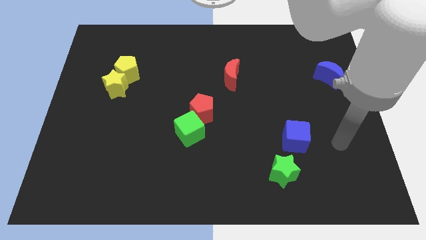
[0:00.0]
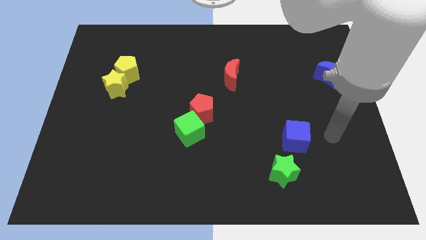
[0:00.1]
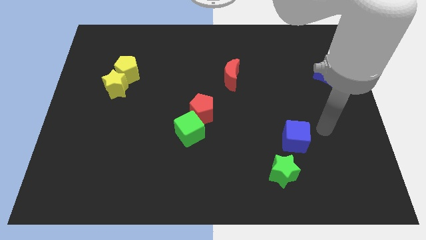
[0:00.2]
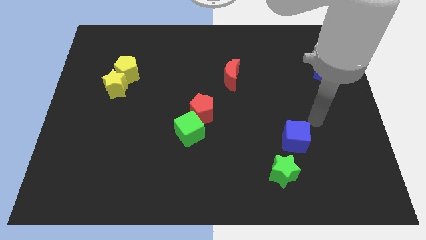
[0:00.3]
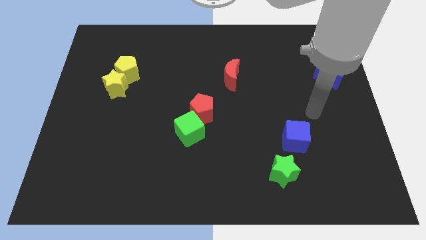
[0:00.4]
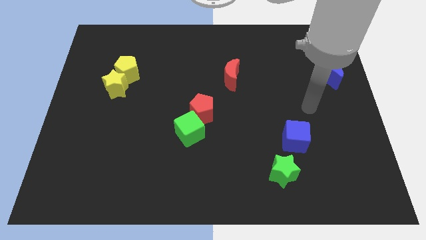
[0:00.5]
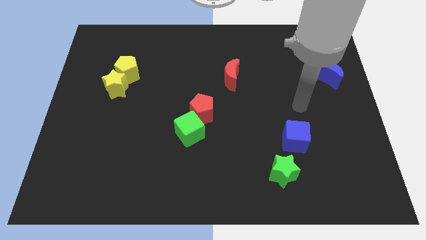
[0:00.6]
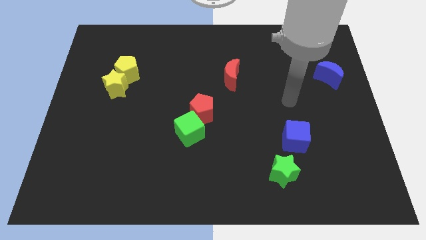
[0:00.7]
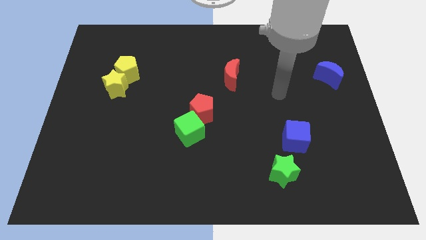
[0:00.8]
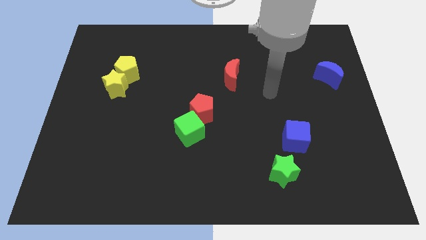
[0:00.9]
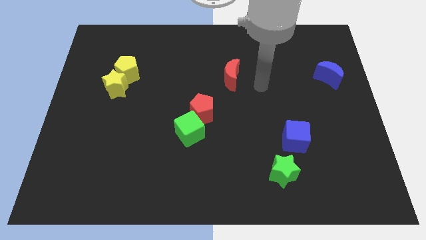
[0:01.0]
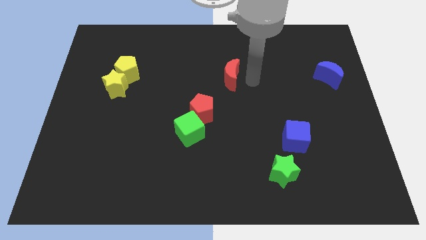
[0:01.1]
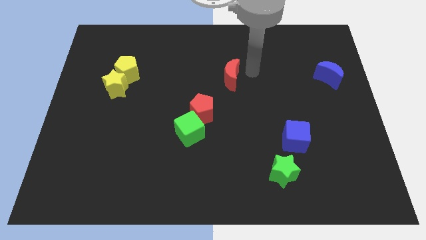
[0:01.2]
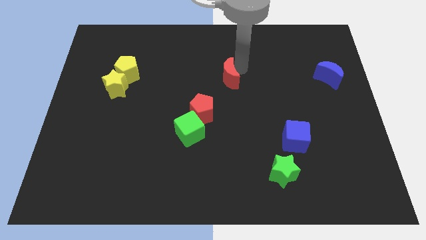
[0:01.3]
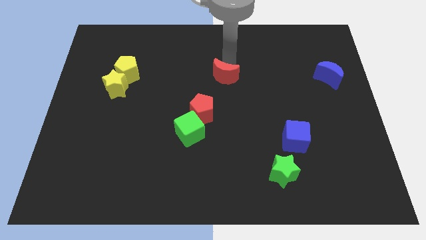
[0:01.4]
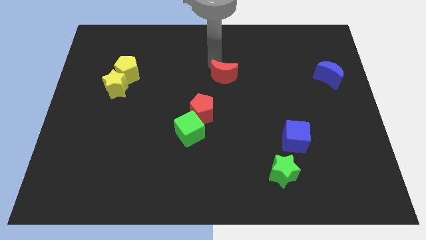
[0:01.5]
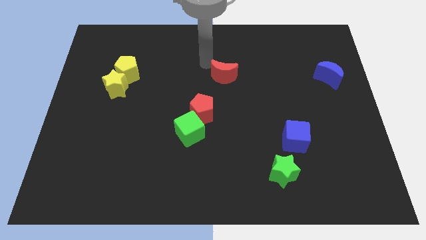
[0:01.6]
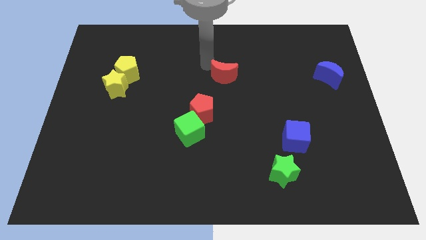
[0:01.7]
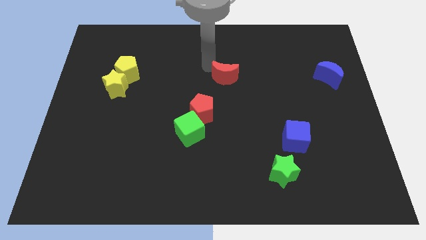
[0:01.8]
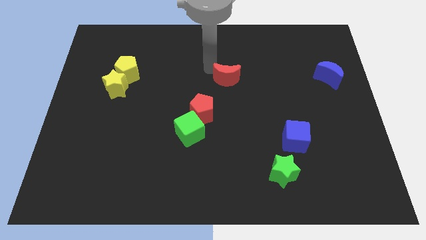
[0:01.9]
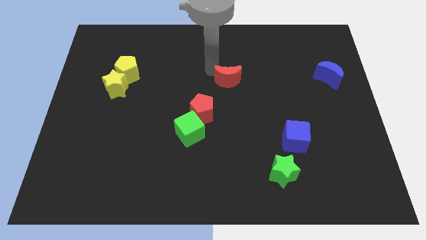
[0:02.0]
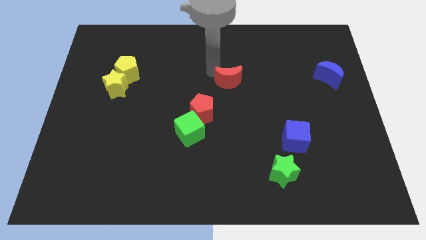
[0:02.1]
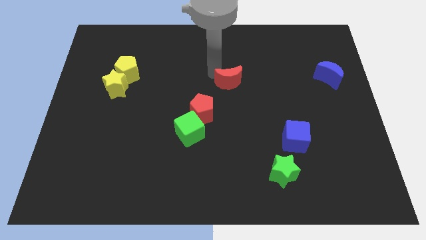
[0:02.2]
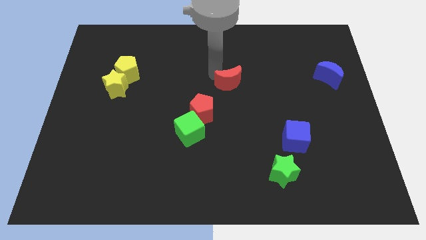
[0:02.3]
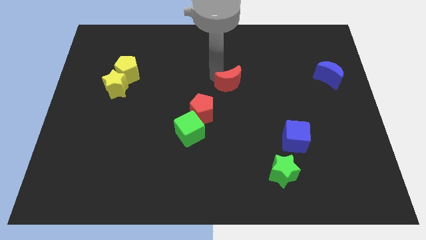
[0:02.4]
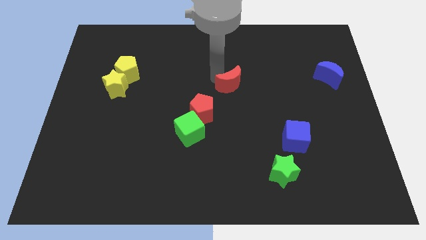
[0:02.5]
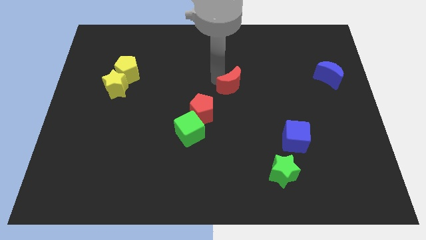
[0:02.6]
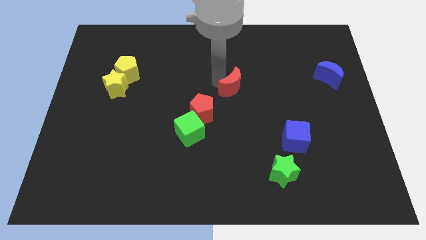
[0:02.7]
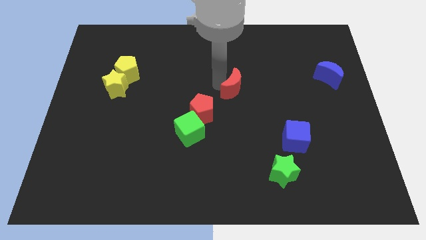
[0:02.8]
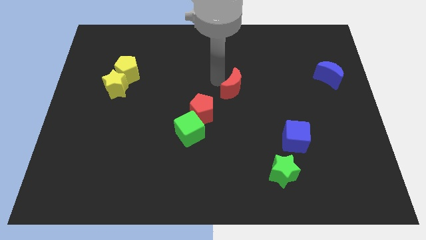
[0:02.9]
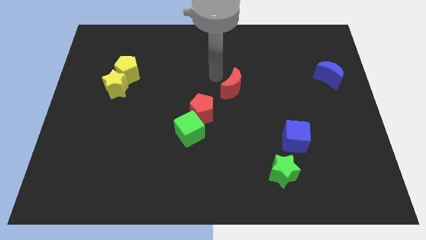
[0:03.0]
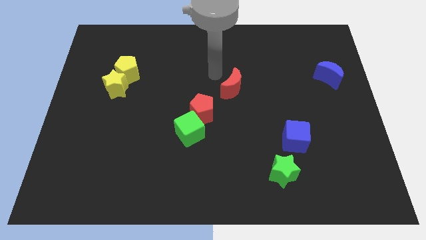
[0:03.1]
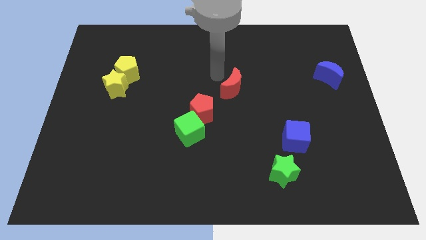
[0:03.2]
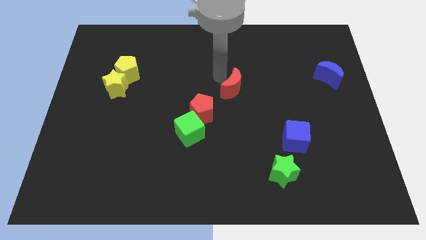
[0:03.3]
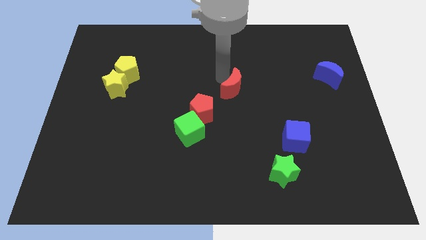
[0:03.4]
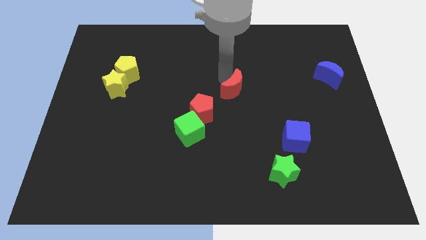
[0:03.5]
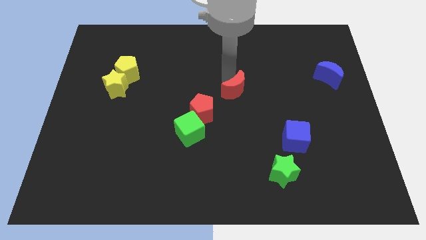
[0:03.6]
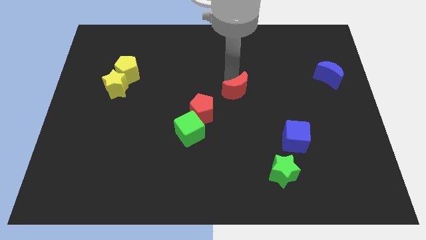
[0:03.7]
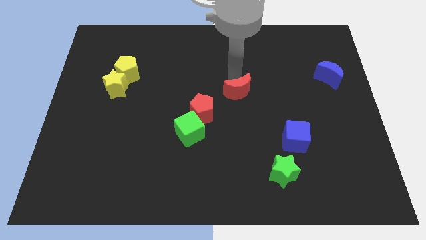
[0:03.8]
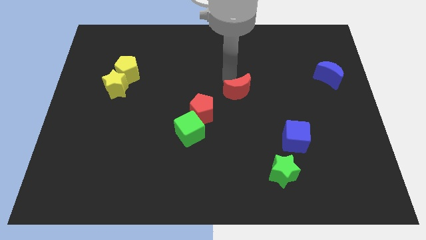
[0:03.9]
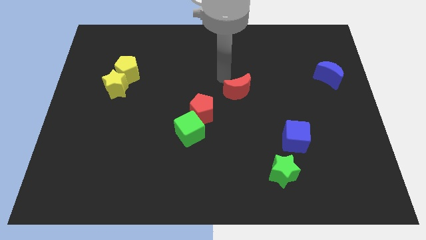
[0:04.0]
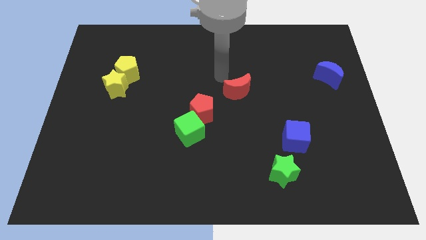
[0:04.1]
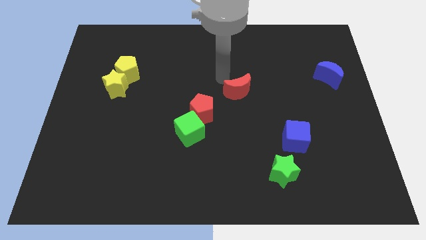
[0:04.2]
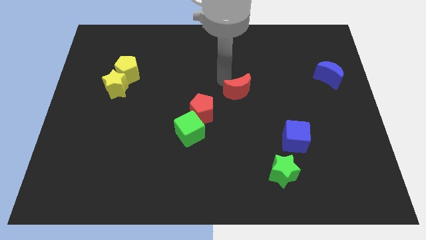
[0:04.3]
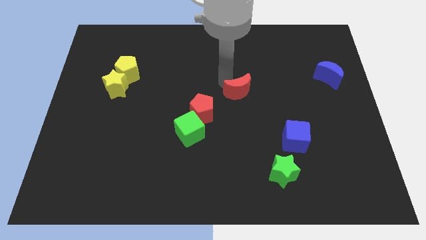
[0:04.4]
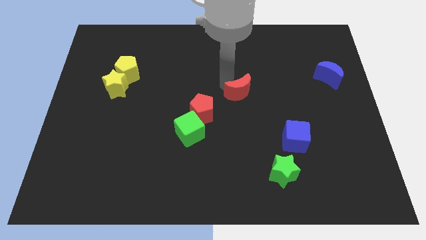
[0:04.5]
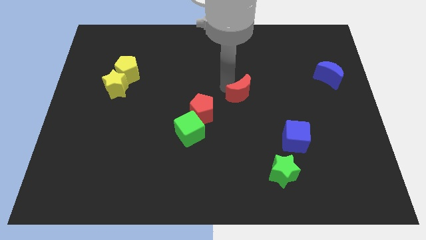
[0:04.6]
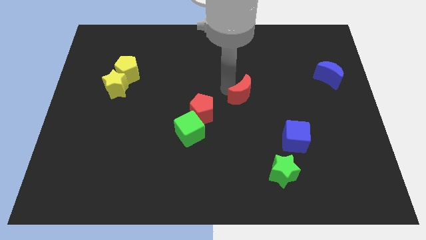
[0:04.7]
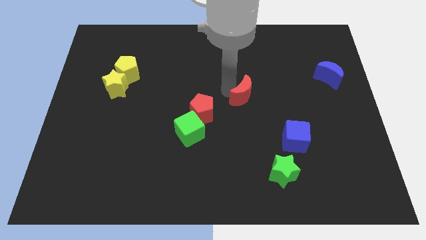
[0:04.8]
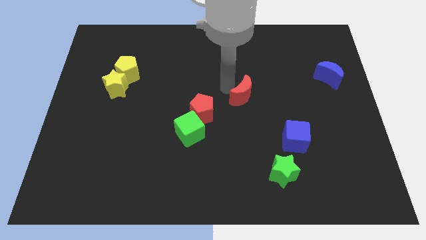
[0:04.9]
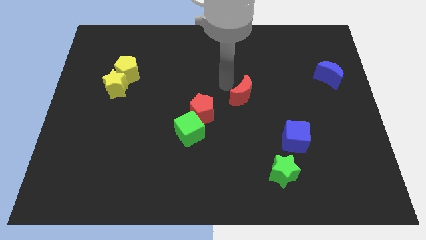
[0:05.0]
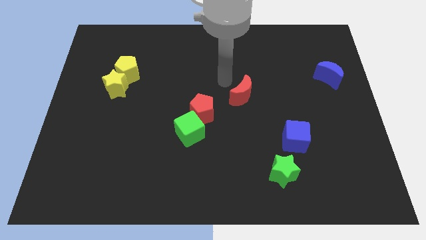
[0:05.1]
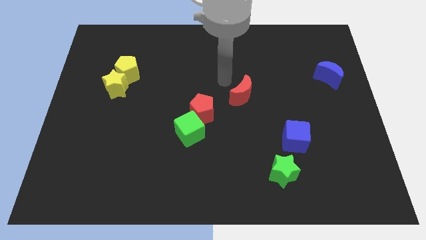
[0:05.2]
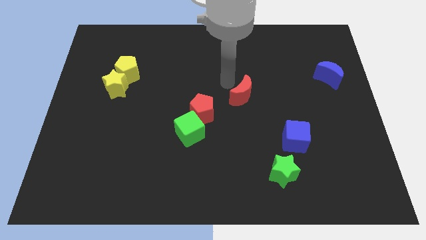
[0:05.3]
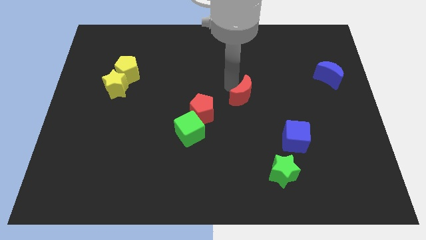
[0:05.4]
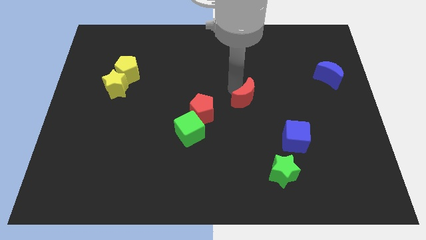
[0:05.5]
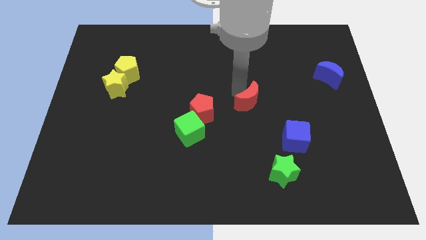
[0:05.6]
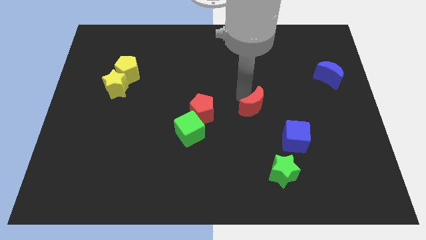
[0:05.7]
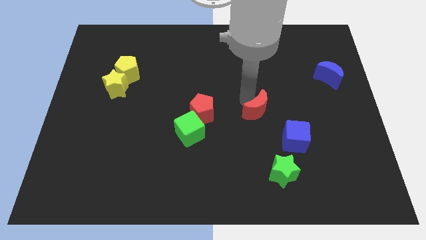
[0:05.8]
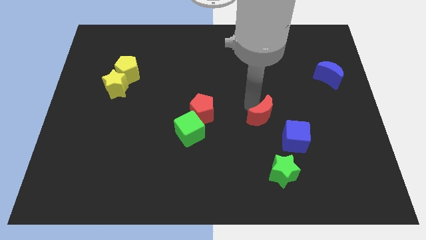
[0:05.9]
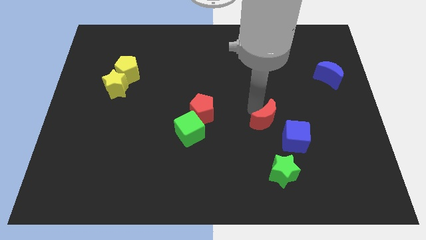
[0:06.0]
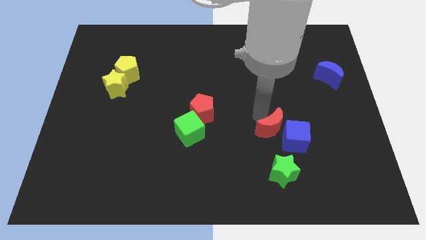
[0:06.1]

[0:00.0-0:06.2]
move the red moon next to the blue cube

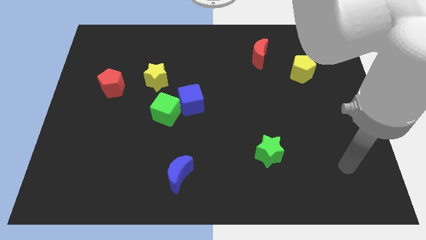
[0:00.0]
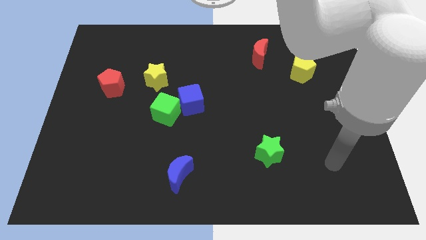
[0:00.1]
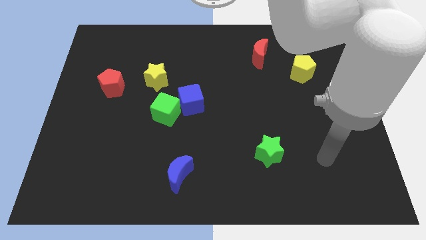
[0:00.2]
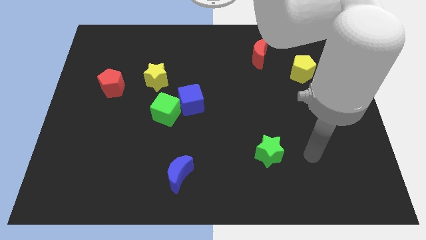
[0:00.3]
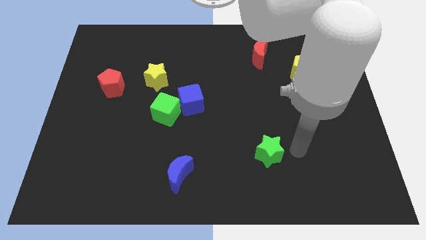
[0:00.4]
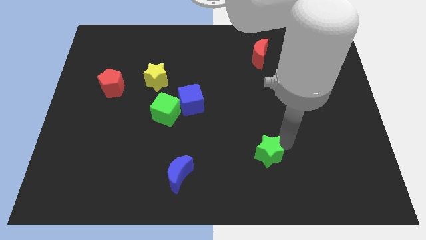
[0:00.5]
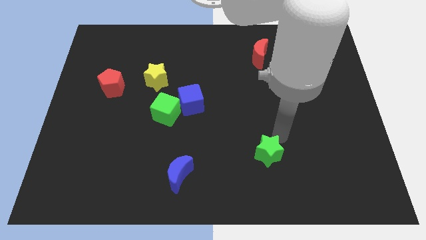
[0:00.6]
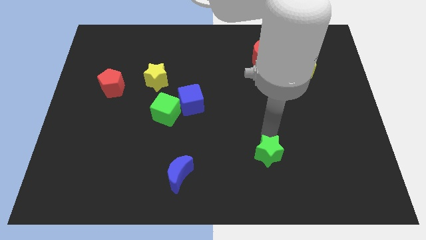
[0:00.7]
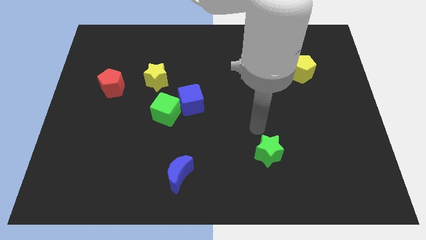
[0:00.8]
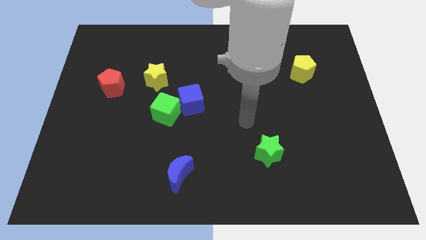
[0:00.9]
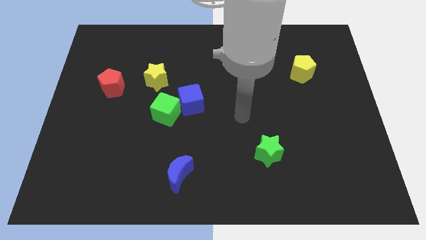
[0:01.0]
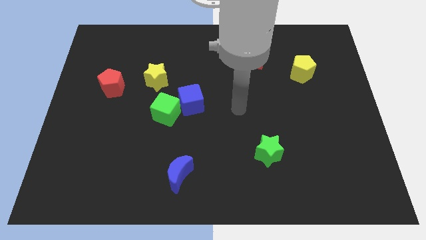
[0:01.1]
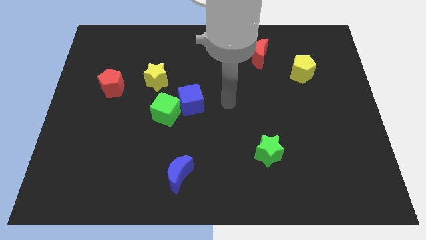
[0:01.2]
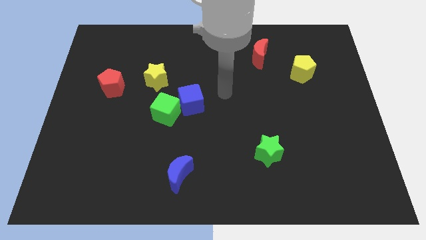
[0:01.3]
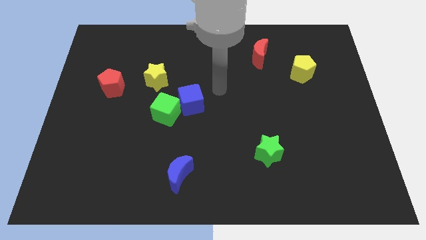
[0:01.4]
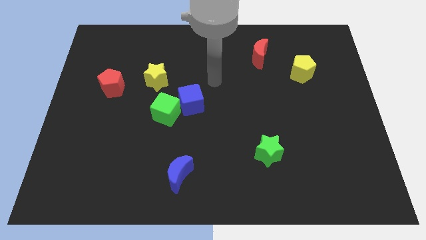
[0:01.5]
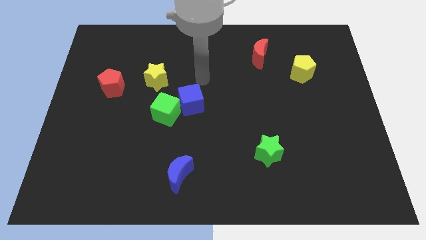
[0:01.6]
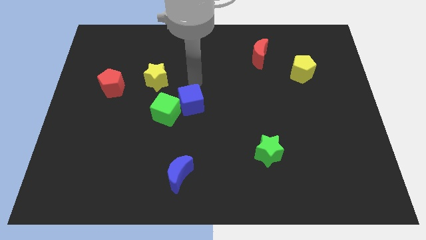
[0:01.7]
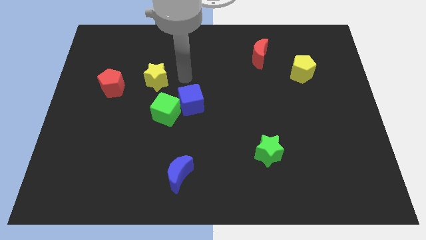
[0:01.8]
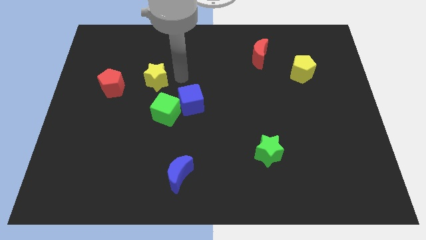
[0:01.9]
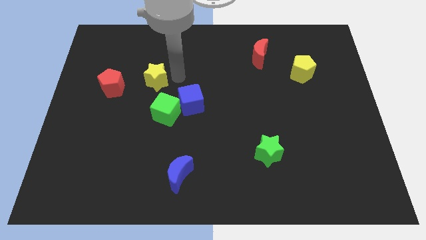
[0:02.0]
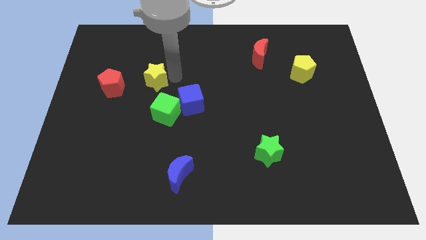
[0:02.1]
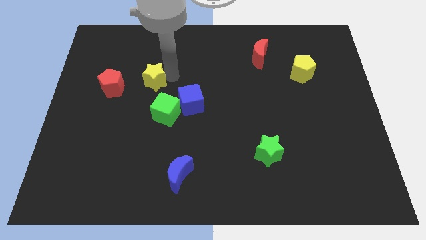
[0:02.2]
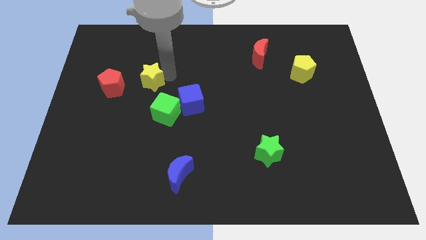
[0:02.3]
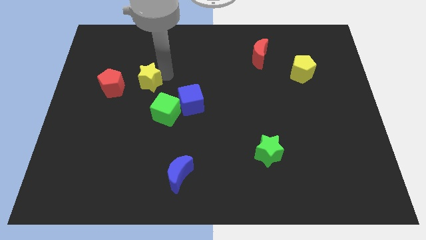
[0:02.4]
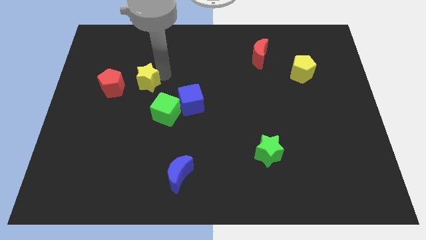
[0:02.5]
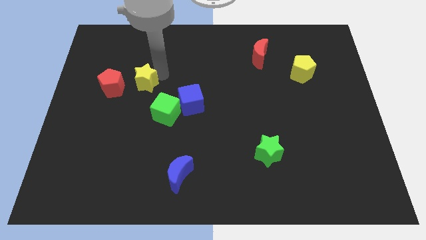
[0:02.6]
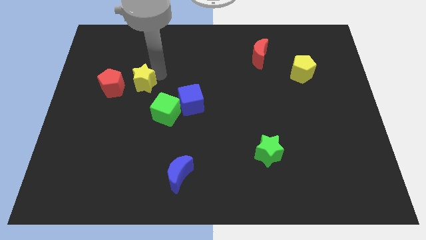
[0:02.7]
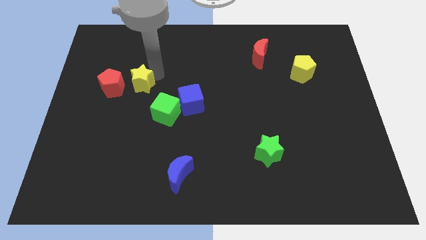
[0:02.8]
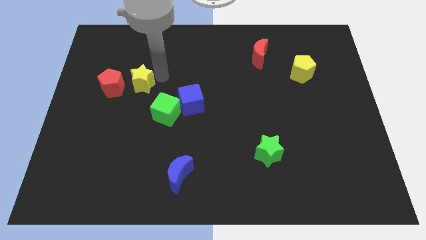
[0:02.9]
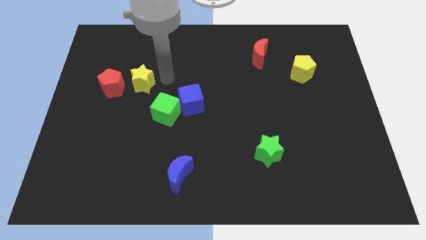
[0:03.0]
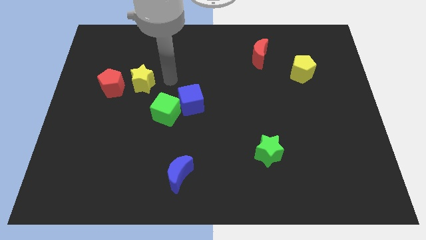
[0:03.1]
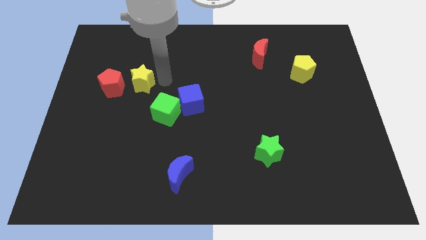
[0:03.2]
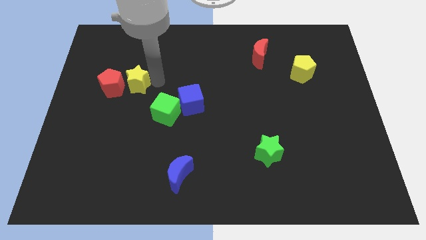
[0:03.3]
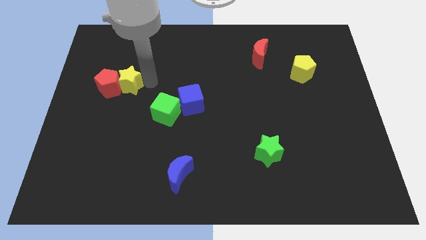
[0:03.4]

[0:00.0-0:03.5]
move the yellow star to the red pentagon
